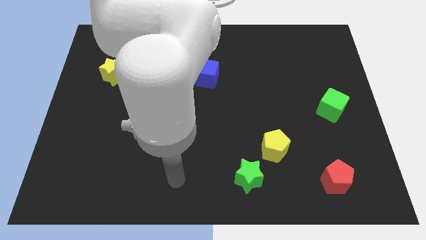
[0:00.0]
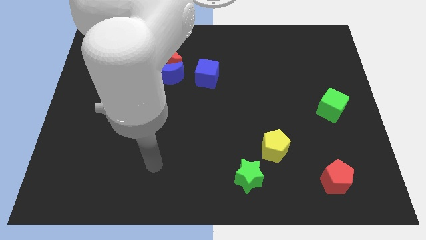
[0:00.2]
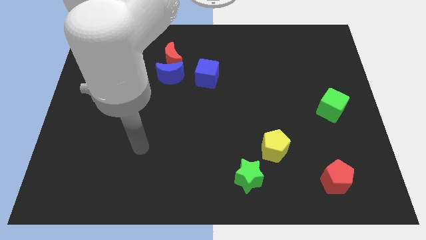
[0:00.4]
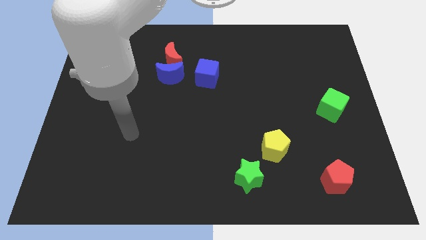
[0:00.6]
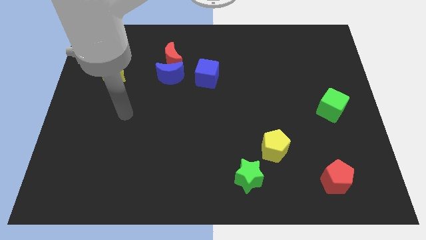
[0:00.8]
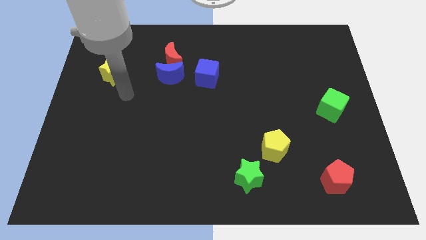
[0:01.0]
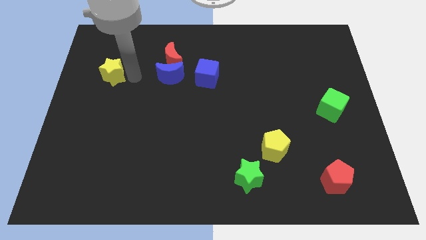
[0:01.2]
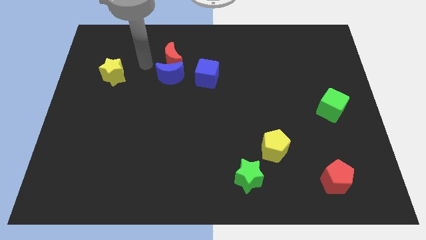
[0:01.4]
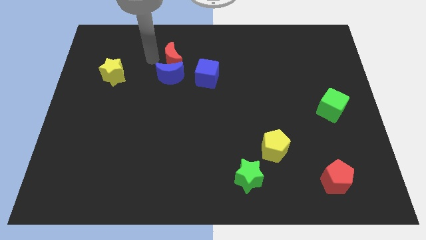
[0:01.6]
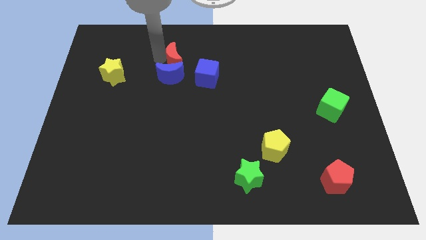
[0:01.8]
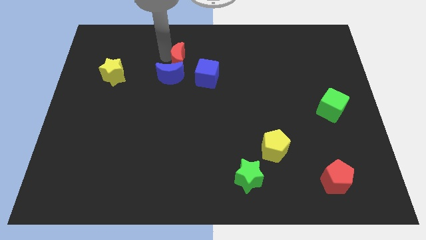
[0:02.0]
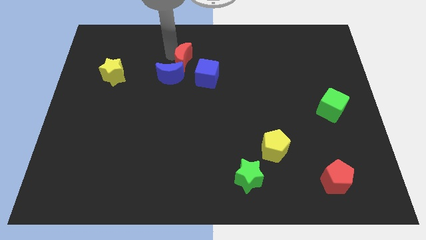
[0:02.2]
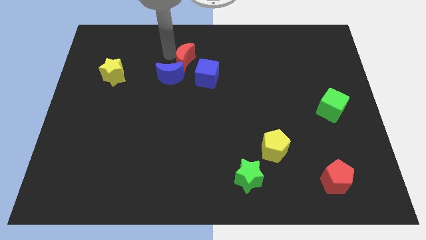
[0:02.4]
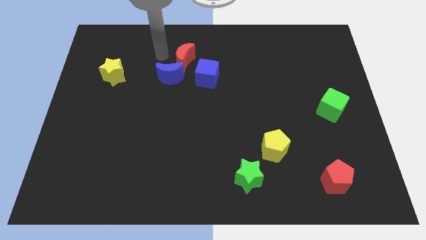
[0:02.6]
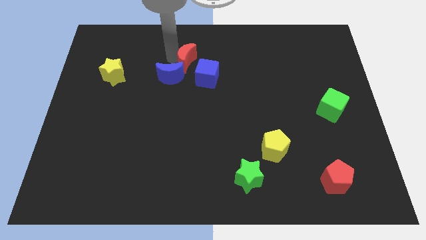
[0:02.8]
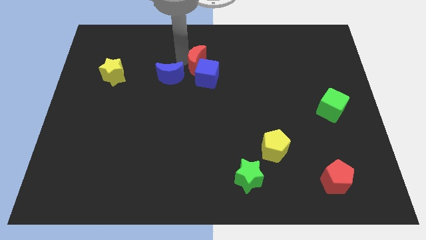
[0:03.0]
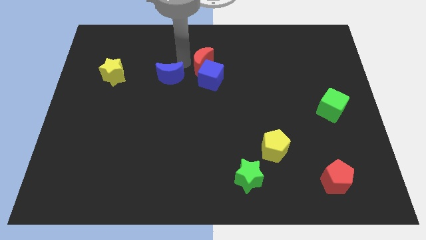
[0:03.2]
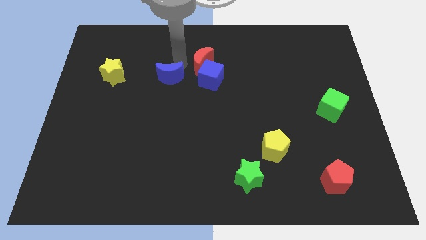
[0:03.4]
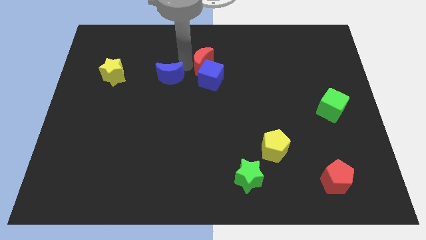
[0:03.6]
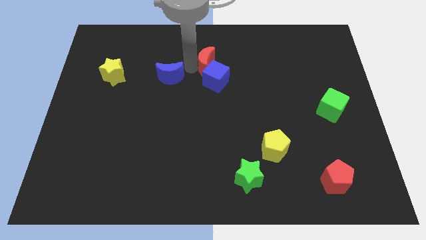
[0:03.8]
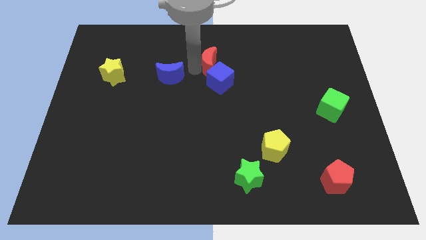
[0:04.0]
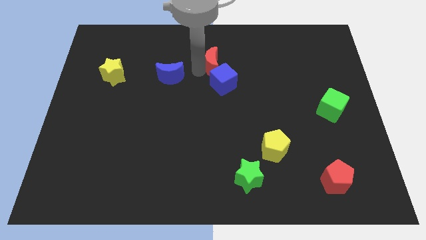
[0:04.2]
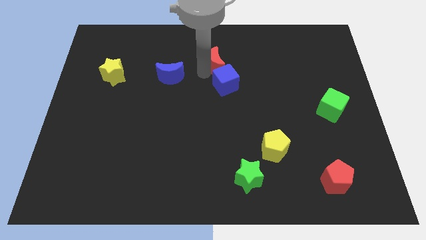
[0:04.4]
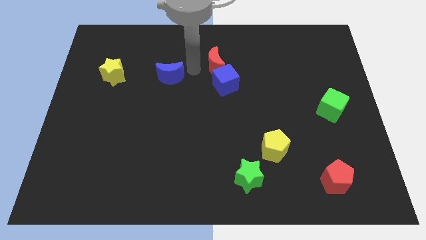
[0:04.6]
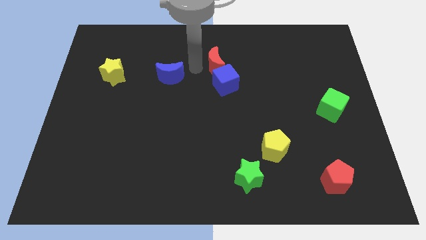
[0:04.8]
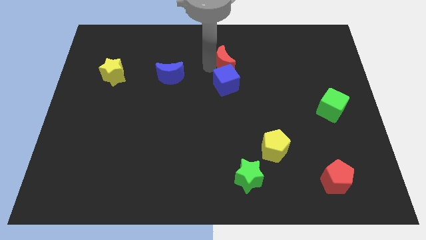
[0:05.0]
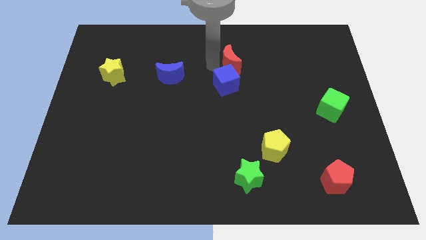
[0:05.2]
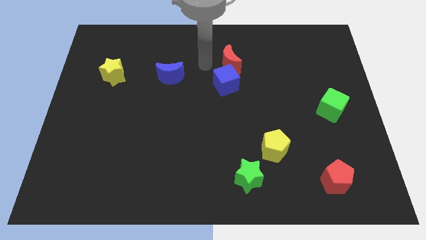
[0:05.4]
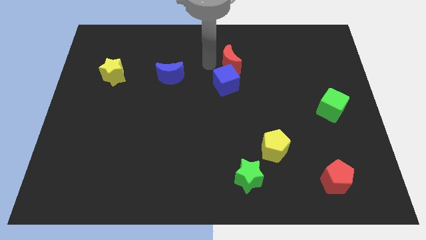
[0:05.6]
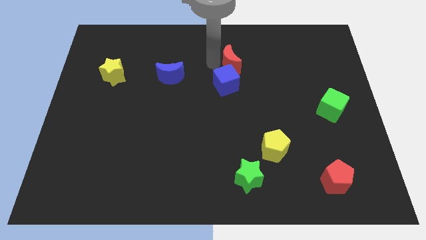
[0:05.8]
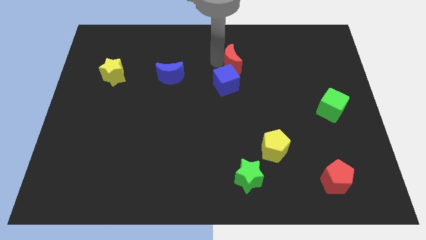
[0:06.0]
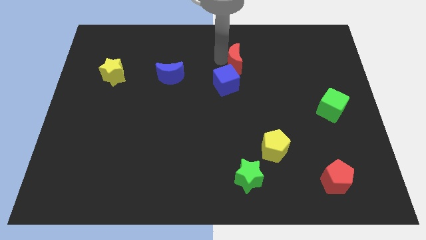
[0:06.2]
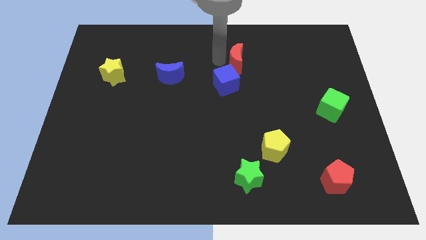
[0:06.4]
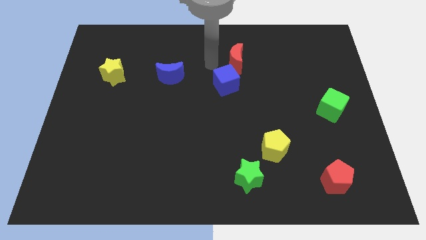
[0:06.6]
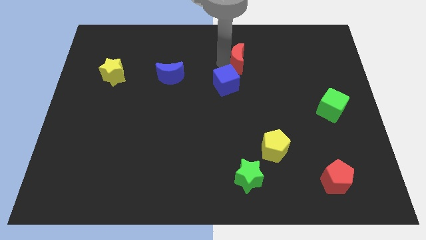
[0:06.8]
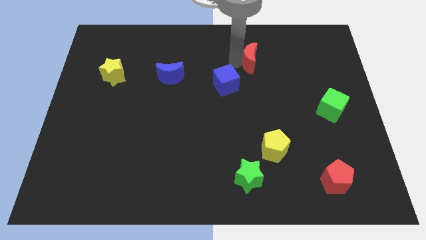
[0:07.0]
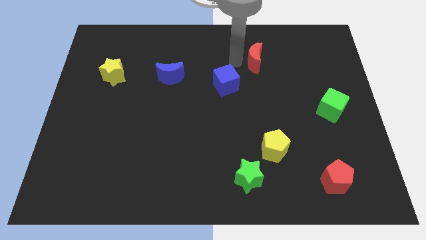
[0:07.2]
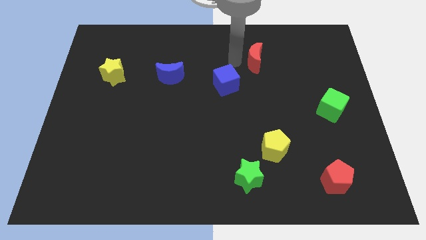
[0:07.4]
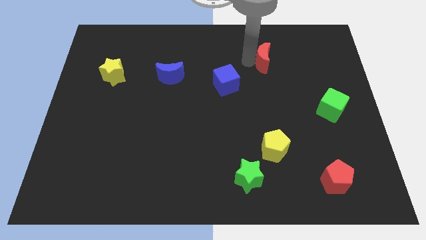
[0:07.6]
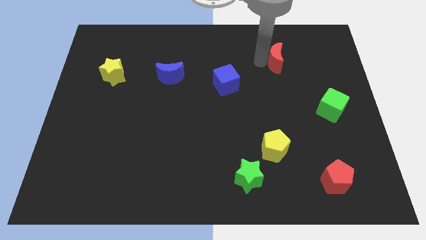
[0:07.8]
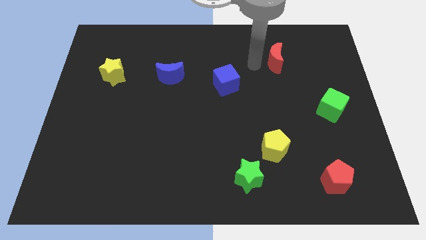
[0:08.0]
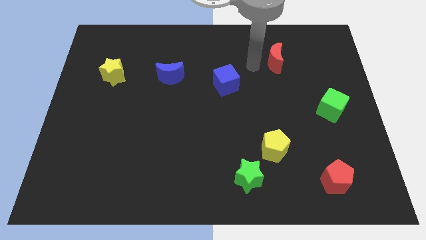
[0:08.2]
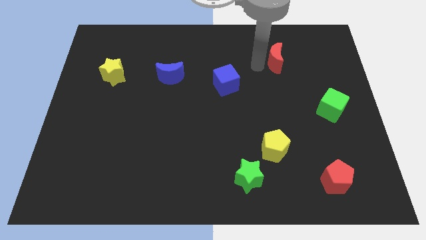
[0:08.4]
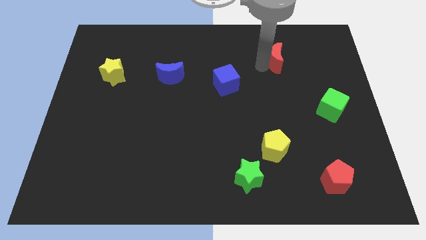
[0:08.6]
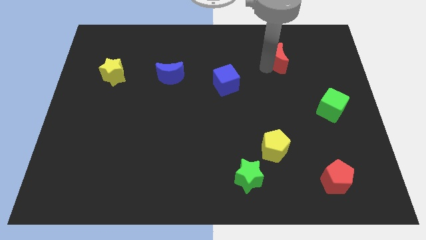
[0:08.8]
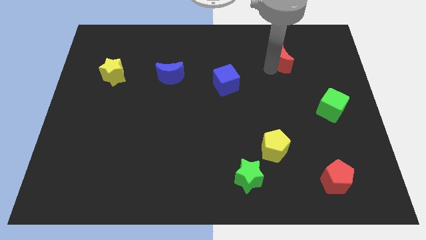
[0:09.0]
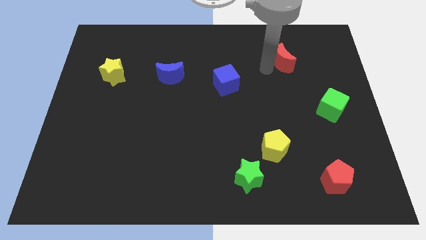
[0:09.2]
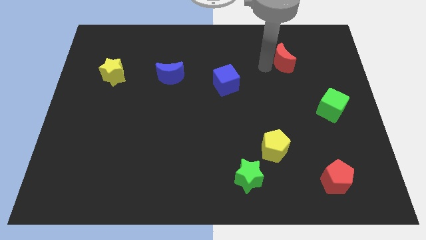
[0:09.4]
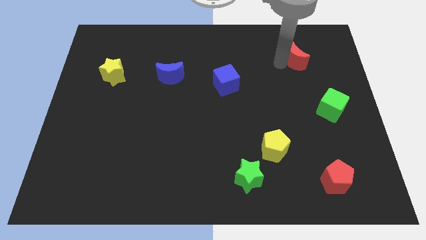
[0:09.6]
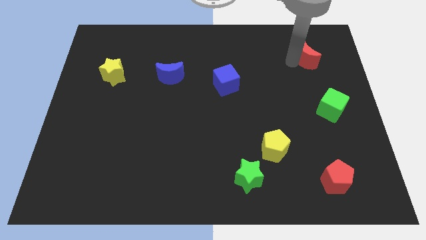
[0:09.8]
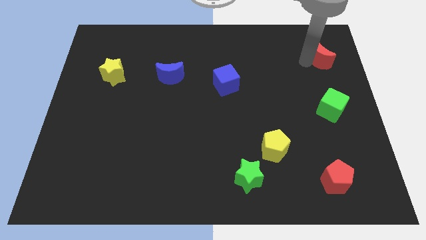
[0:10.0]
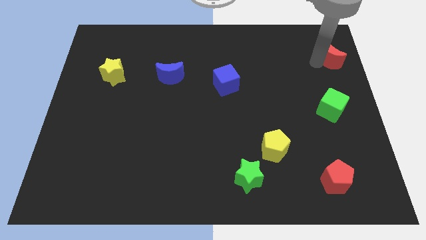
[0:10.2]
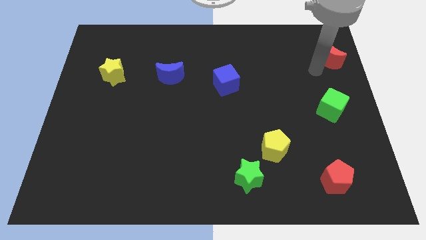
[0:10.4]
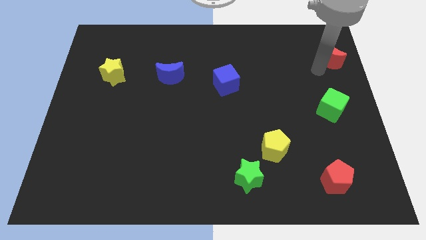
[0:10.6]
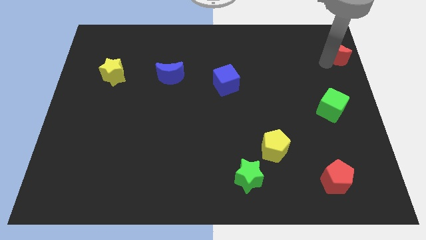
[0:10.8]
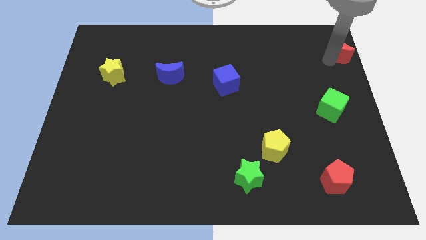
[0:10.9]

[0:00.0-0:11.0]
move the red moon to the top right corner

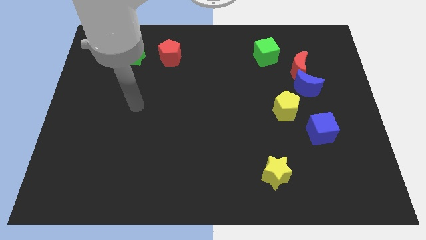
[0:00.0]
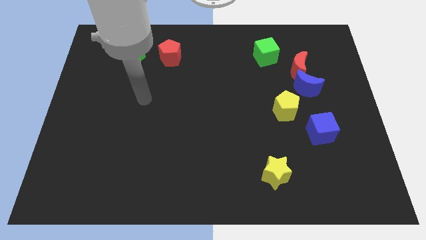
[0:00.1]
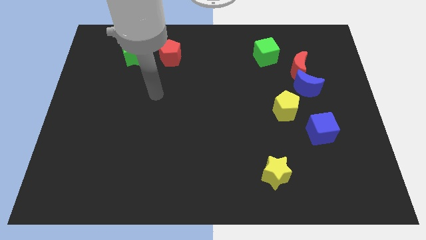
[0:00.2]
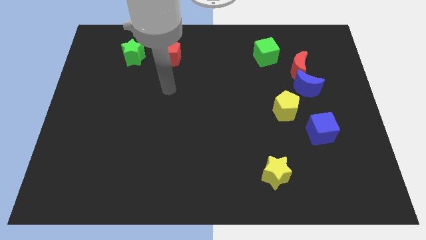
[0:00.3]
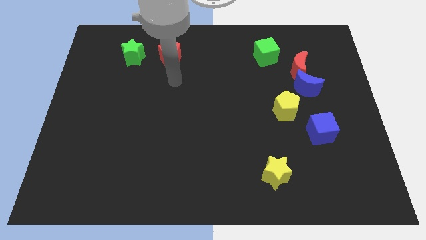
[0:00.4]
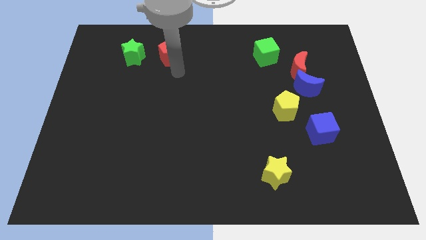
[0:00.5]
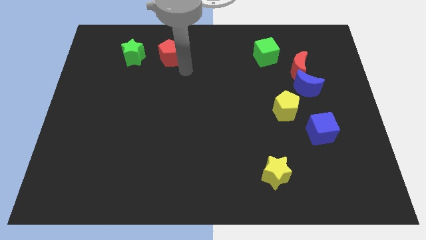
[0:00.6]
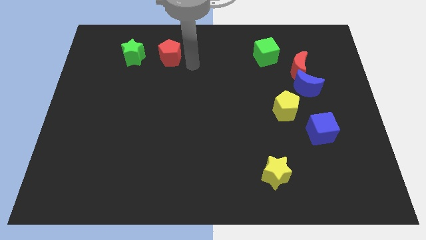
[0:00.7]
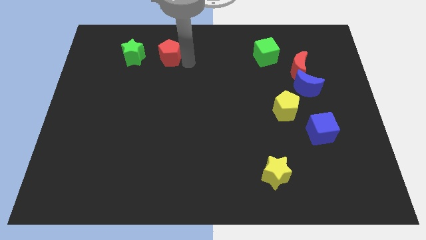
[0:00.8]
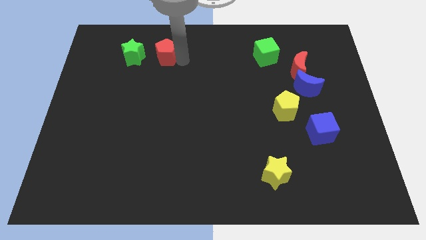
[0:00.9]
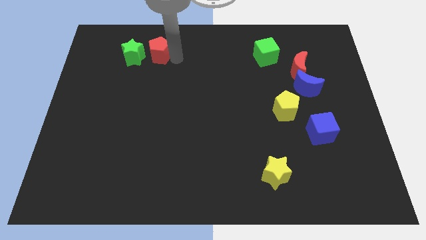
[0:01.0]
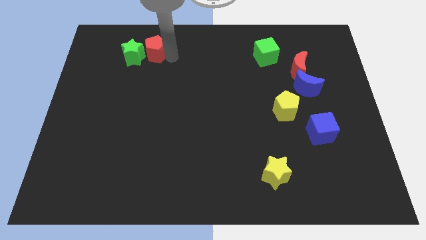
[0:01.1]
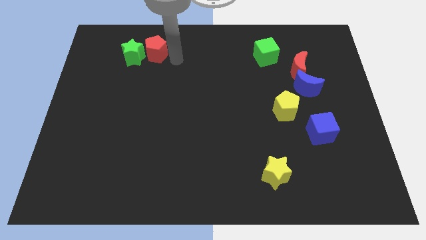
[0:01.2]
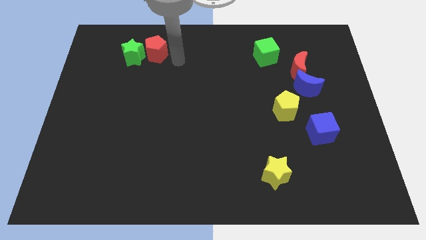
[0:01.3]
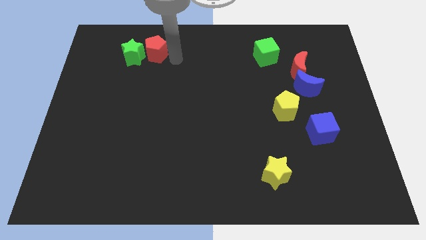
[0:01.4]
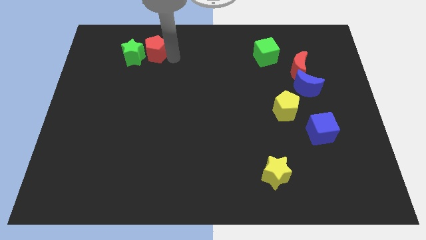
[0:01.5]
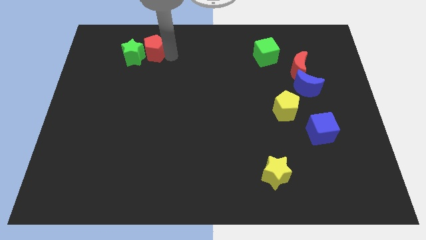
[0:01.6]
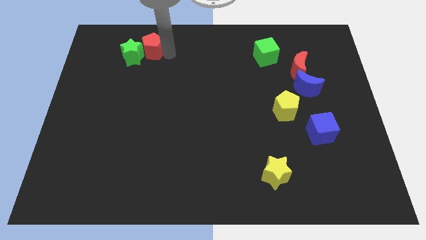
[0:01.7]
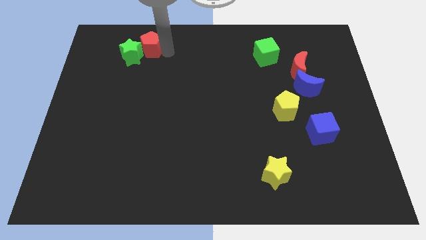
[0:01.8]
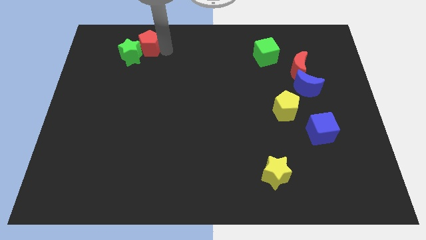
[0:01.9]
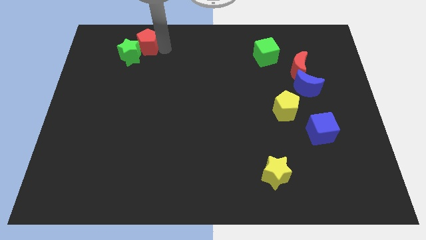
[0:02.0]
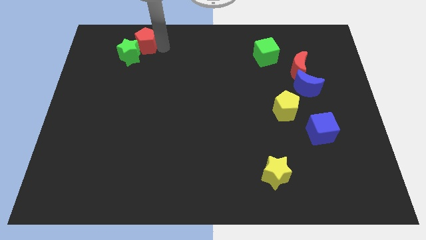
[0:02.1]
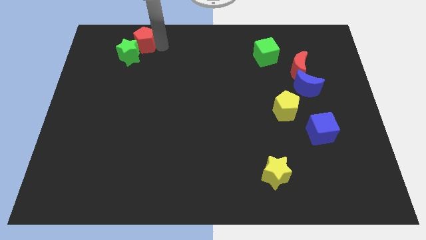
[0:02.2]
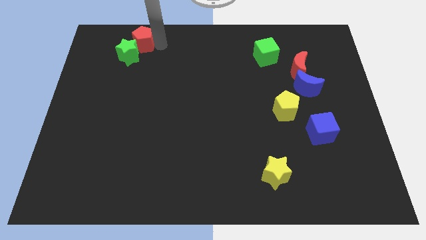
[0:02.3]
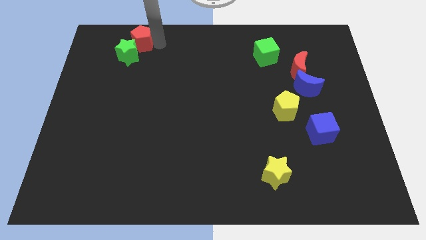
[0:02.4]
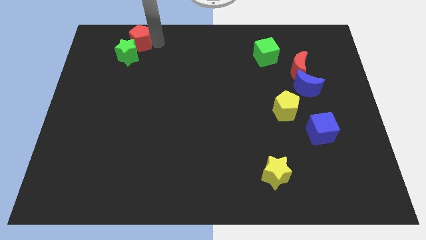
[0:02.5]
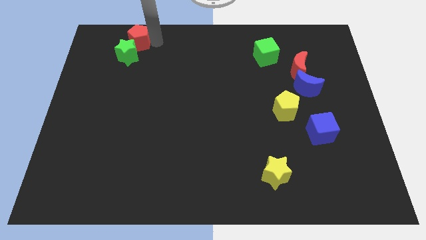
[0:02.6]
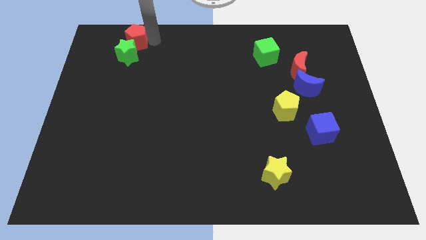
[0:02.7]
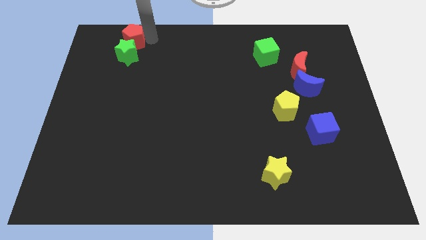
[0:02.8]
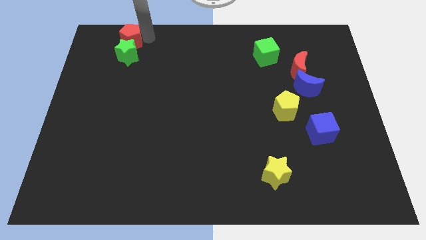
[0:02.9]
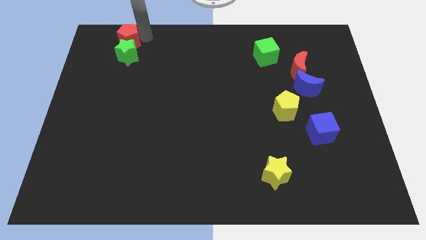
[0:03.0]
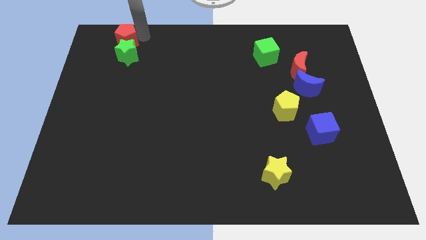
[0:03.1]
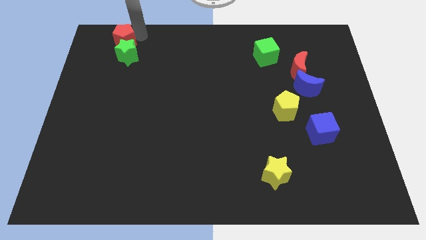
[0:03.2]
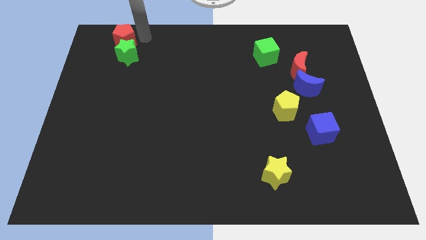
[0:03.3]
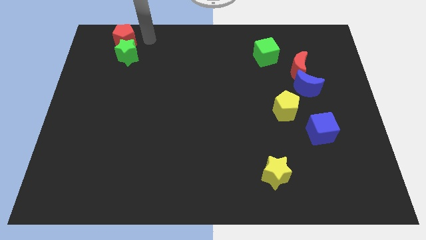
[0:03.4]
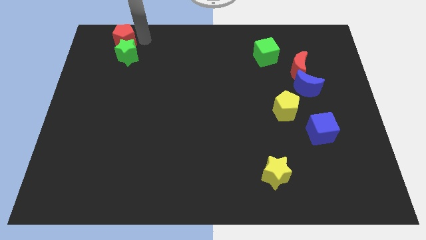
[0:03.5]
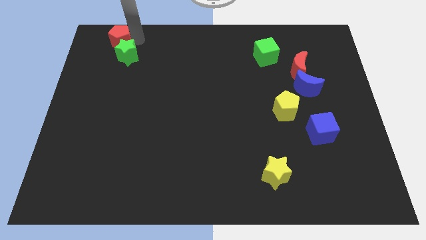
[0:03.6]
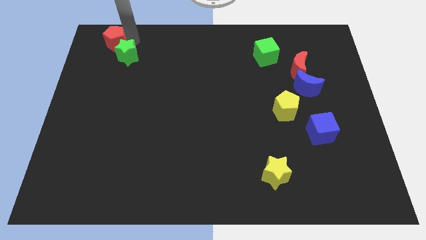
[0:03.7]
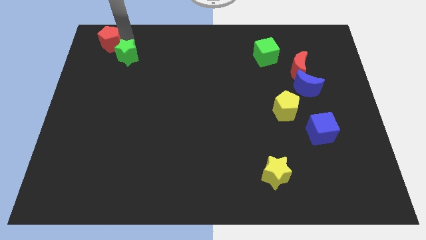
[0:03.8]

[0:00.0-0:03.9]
slide the red pentagon to the upper left corner
